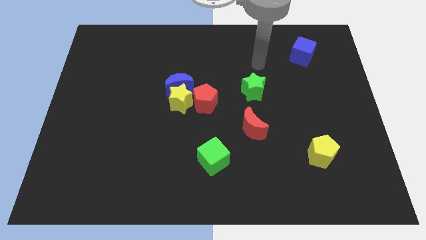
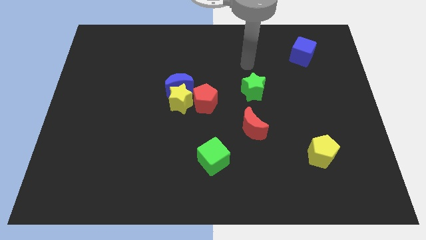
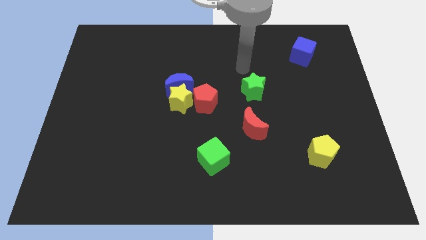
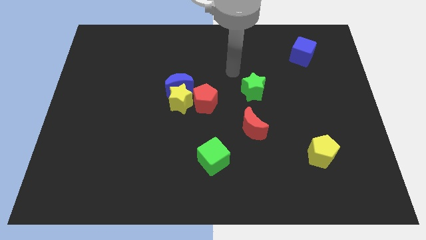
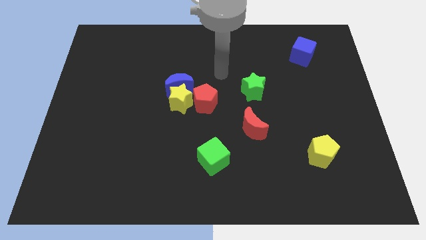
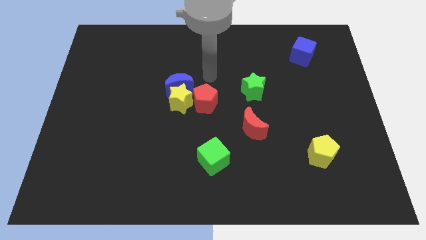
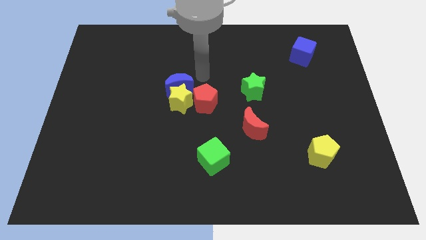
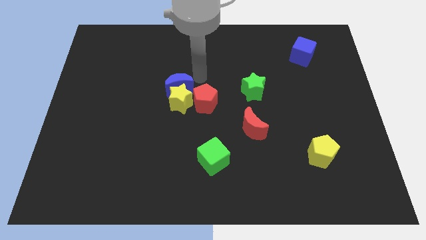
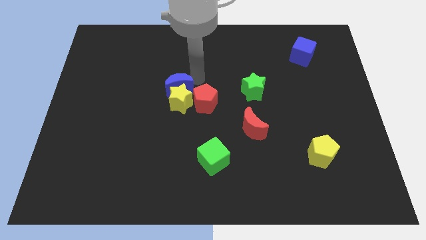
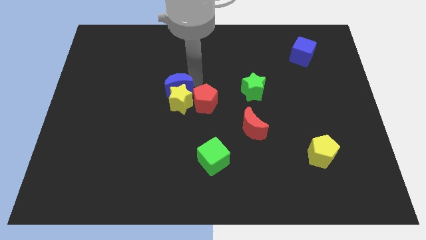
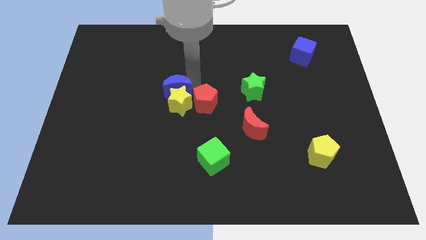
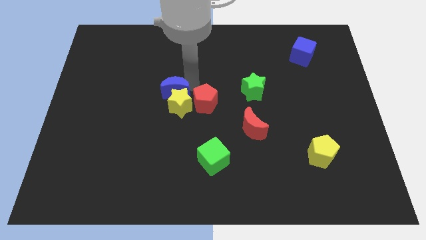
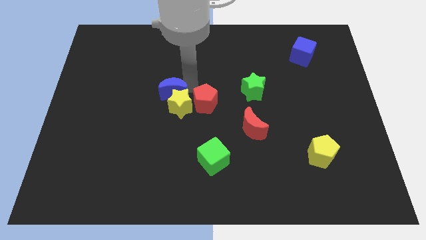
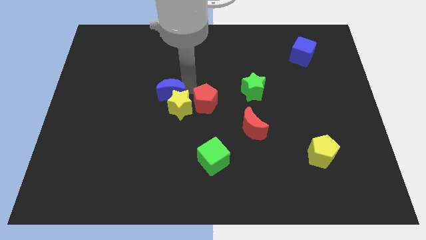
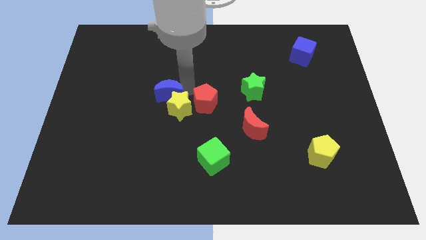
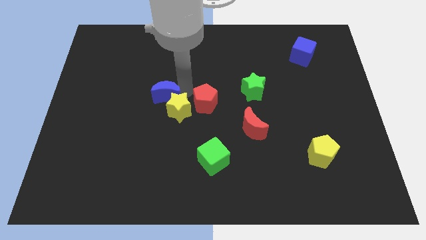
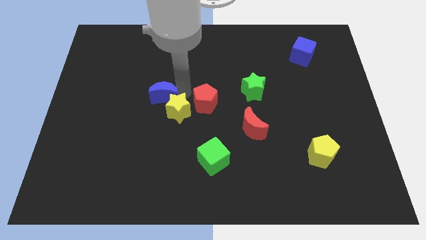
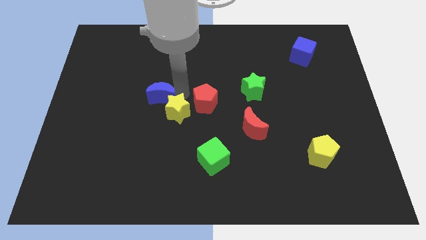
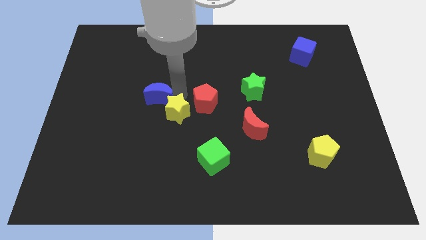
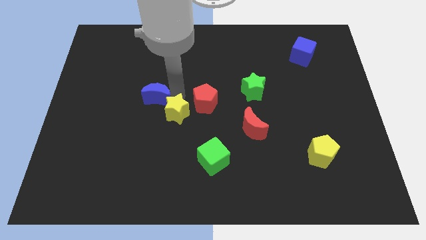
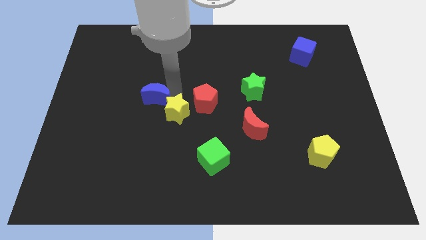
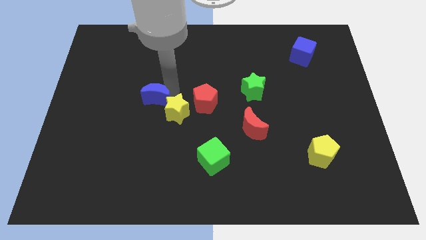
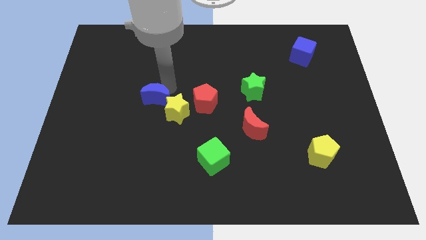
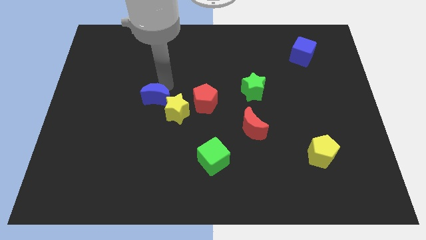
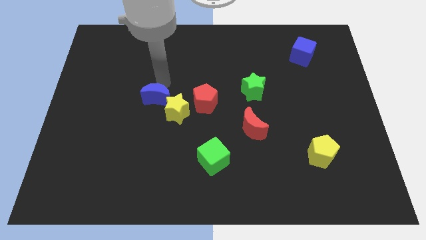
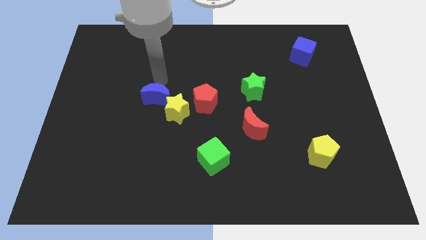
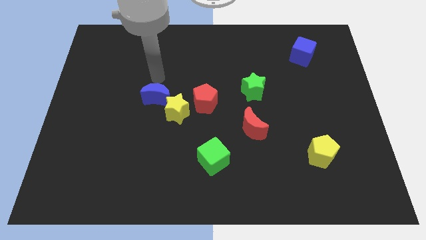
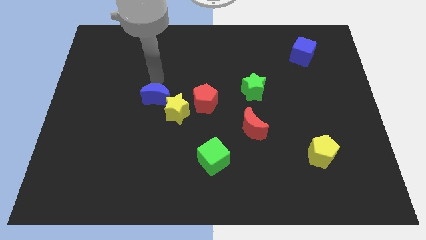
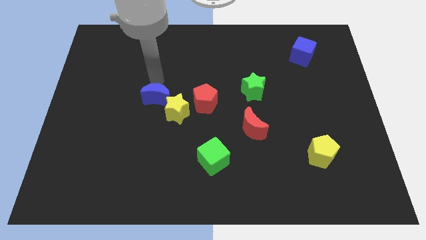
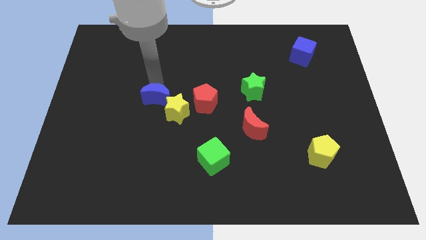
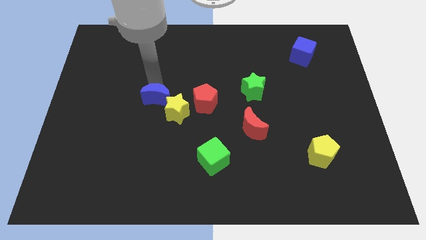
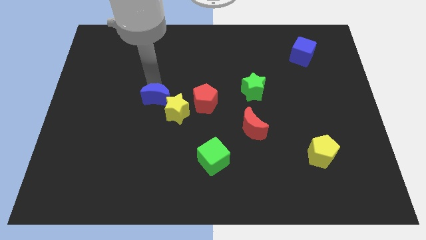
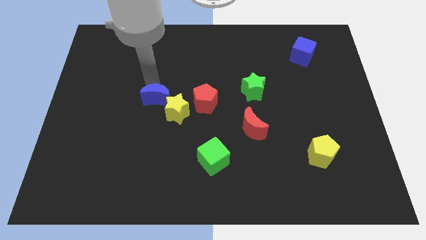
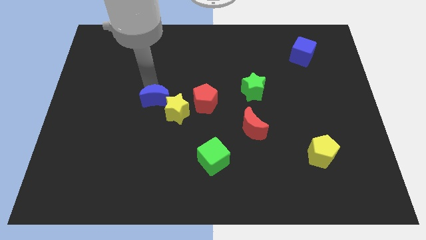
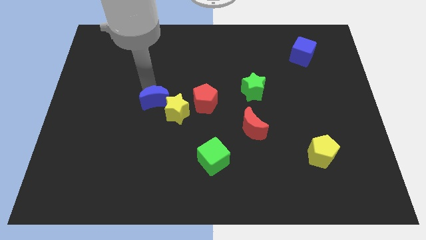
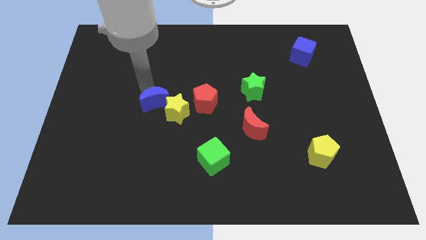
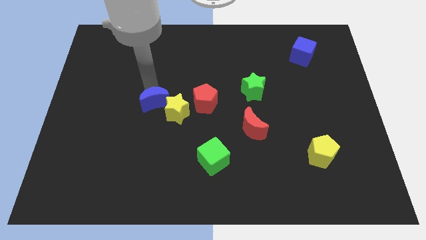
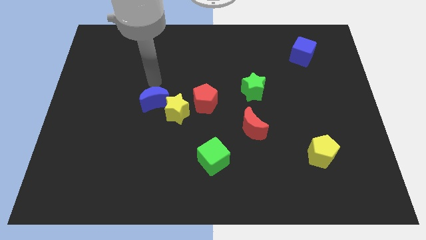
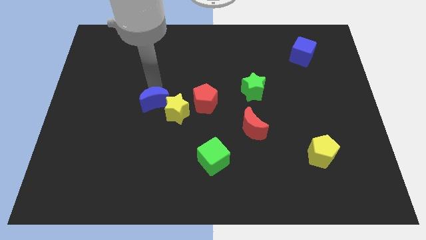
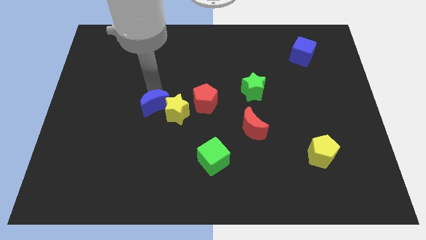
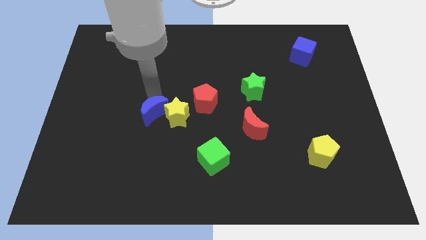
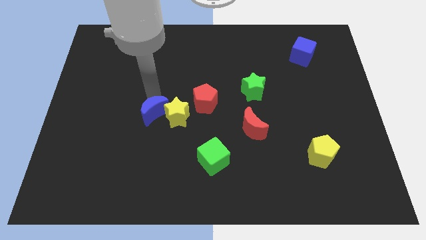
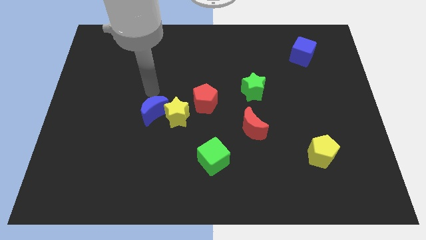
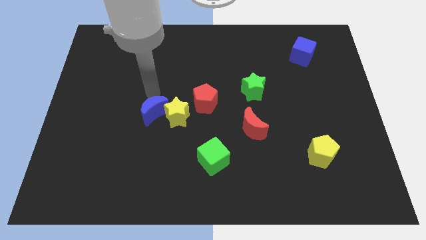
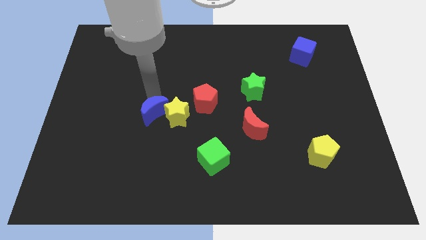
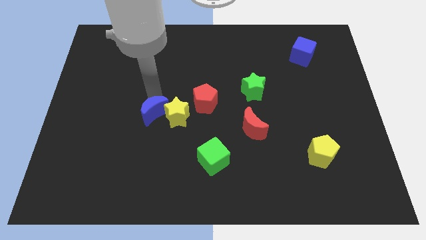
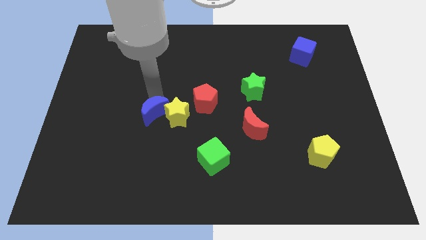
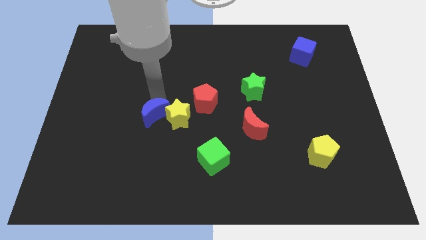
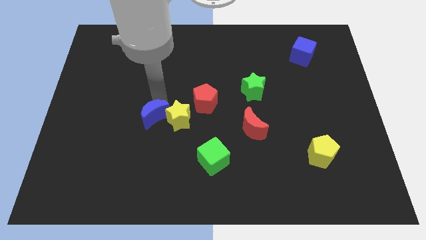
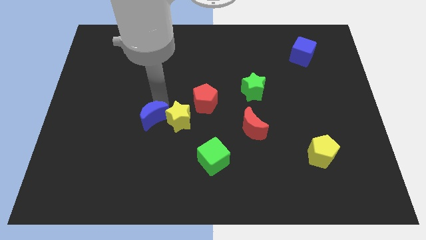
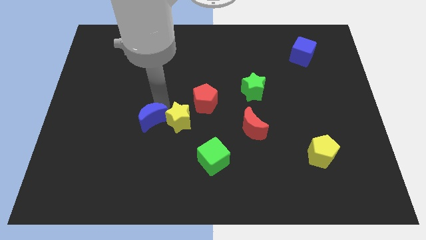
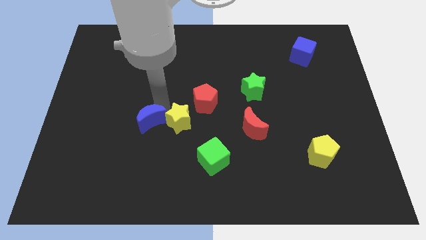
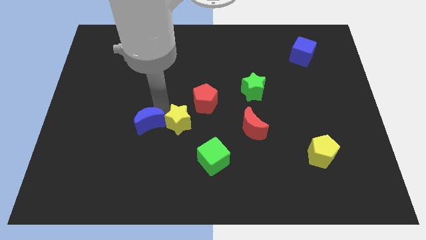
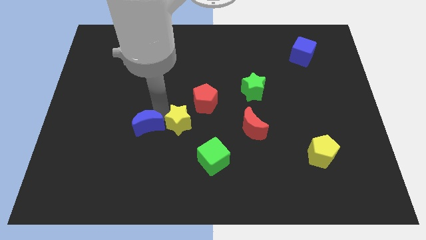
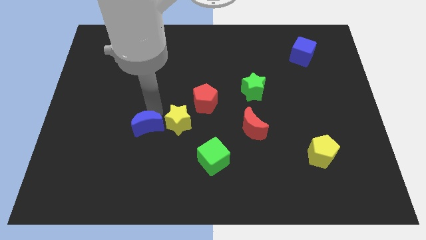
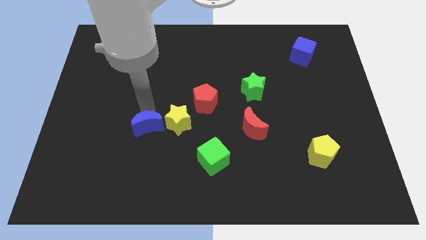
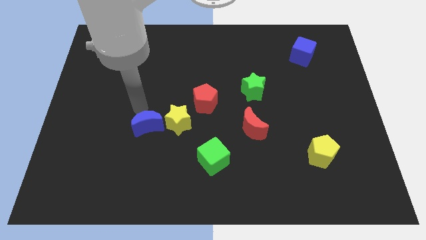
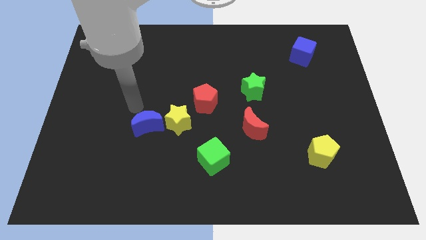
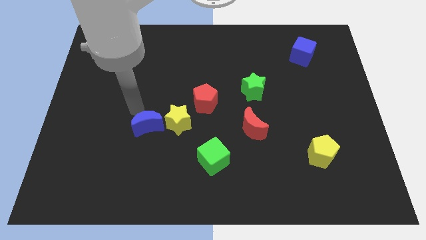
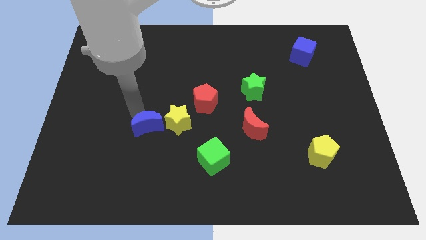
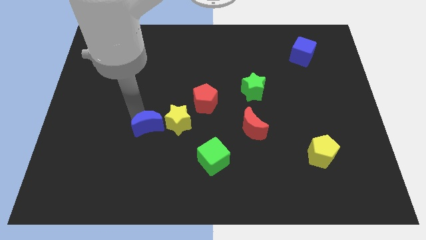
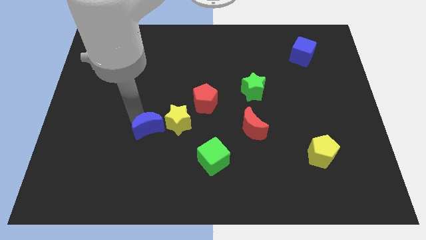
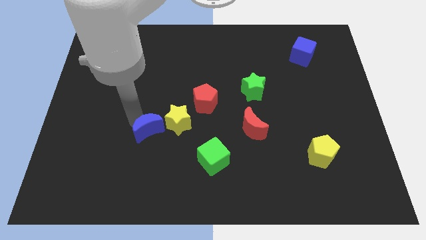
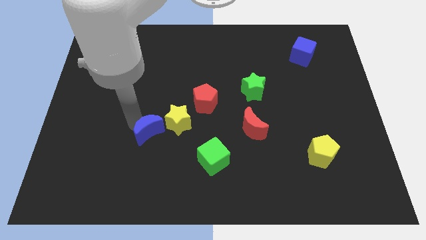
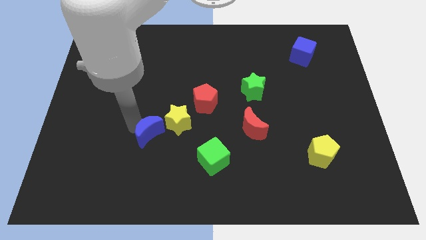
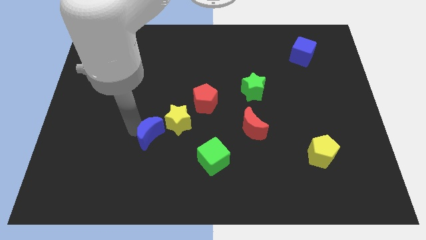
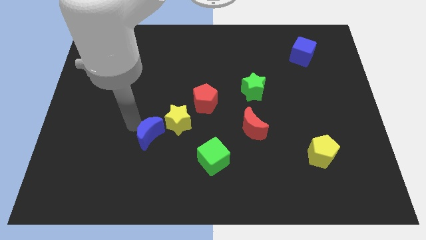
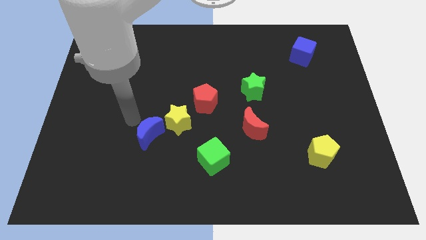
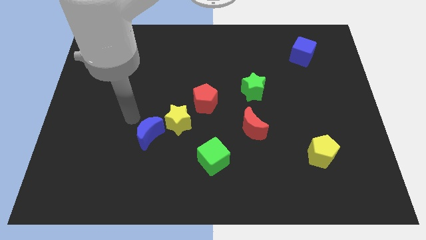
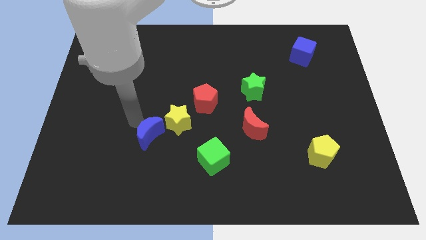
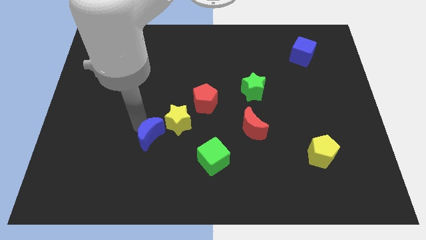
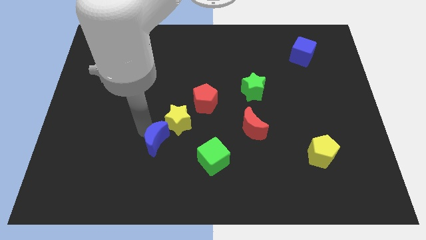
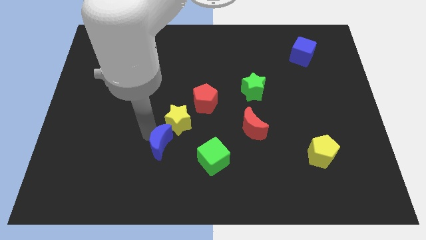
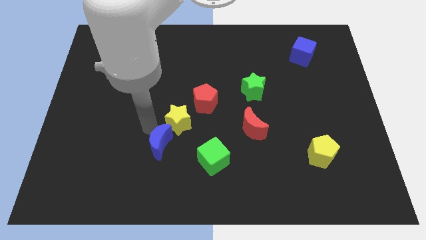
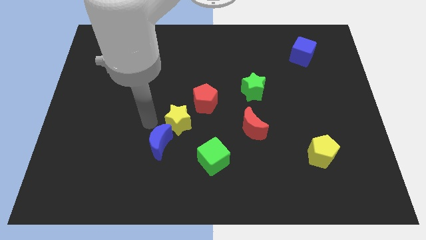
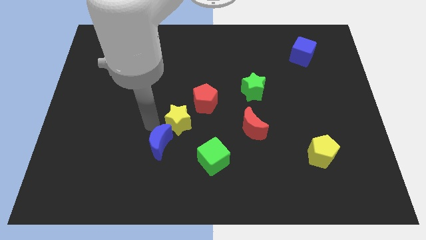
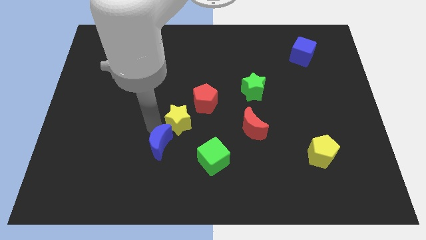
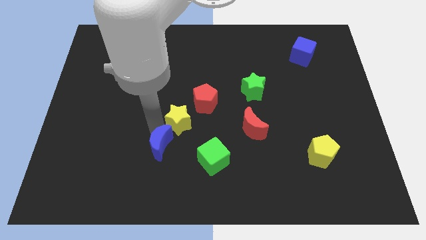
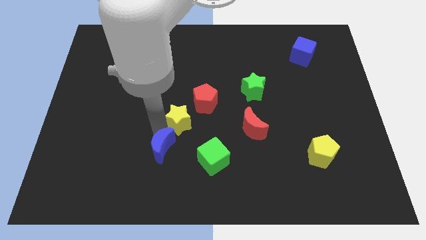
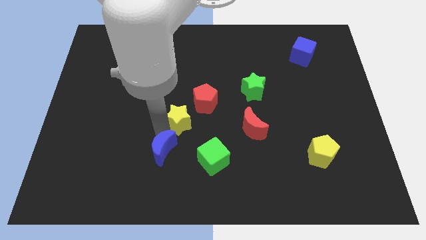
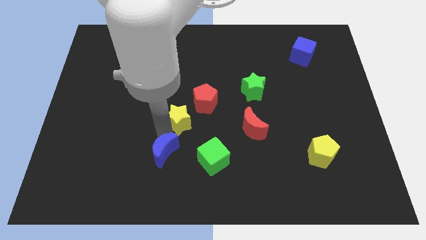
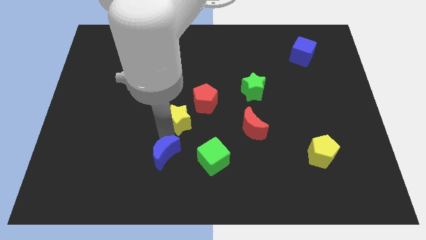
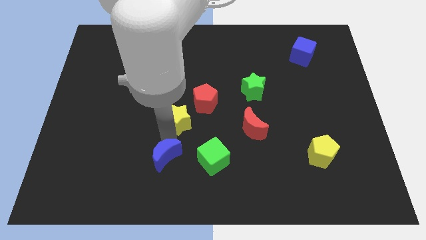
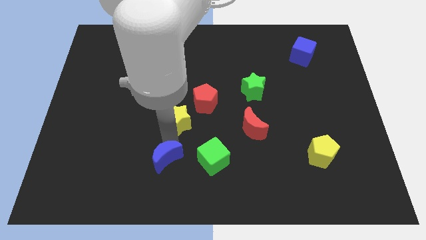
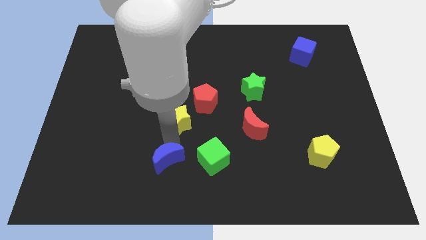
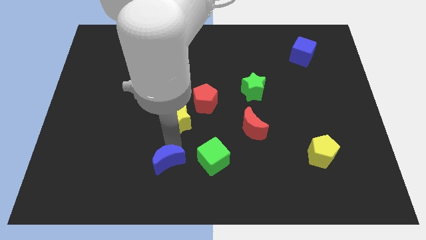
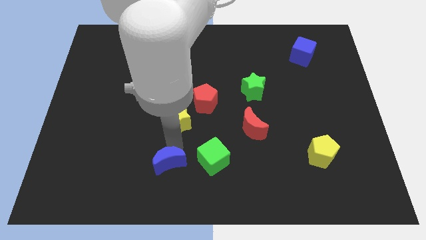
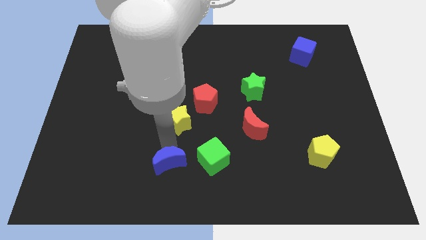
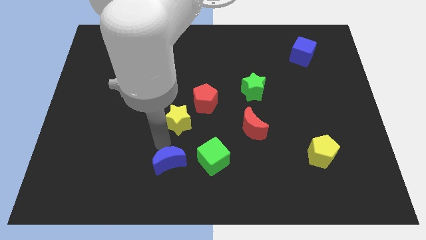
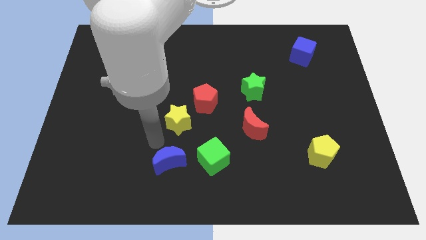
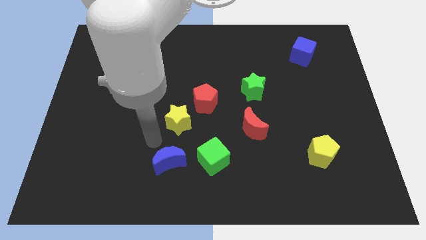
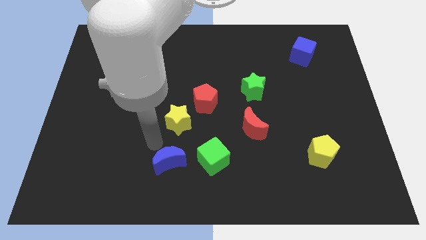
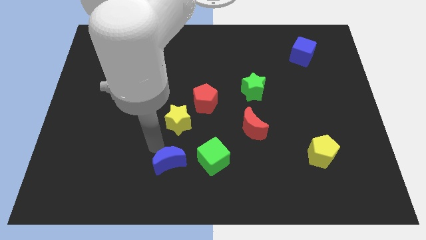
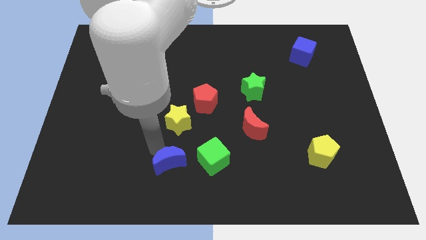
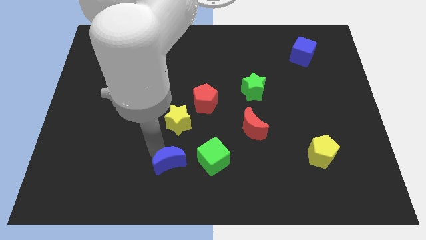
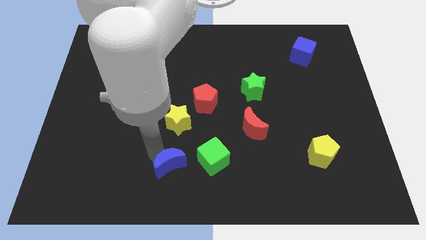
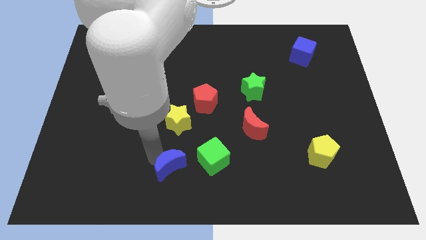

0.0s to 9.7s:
slide the blue moon to the bottom side
